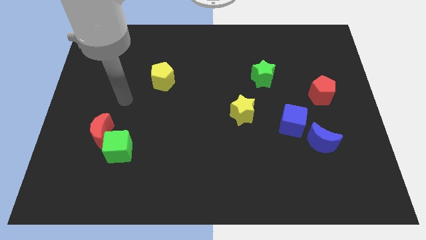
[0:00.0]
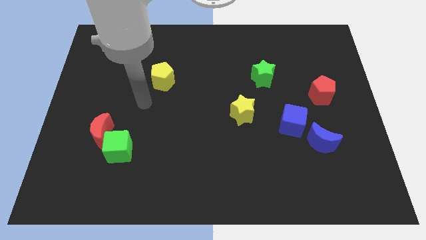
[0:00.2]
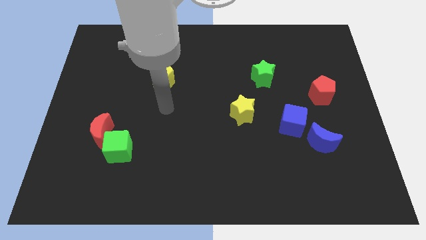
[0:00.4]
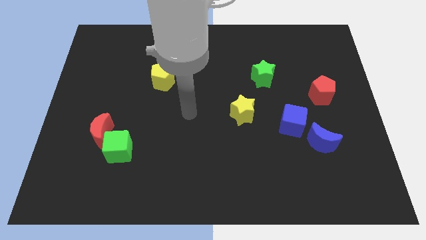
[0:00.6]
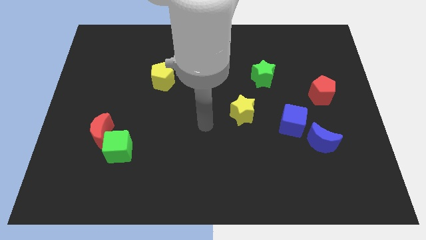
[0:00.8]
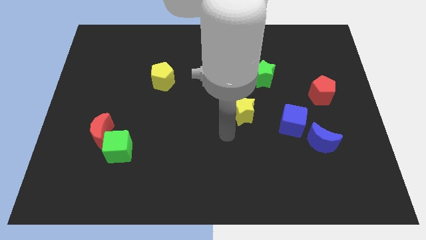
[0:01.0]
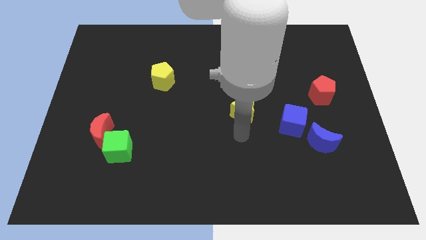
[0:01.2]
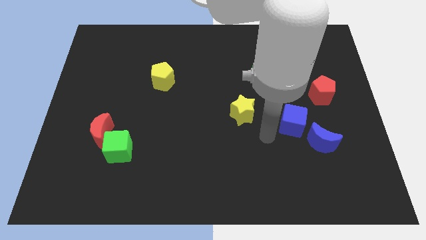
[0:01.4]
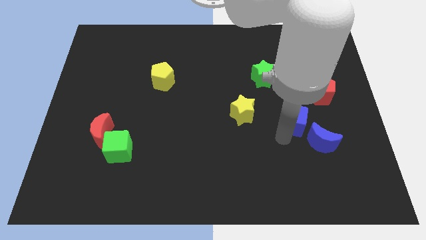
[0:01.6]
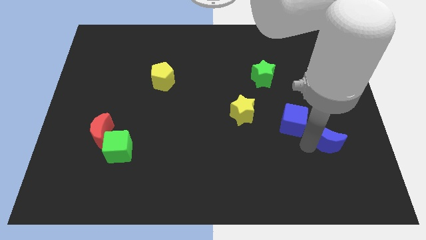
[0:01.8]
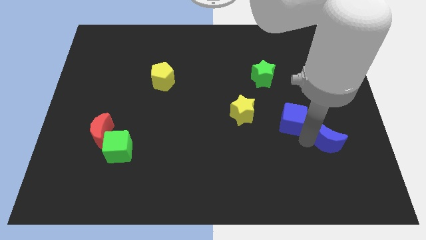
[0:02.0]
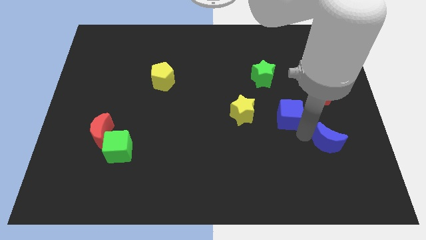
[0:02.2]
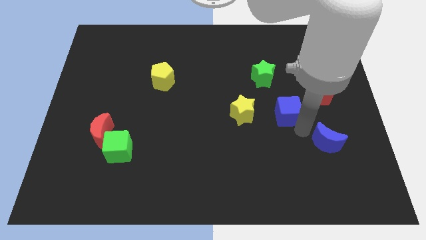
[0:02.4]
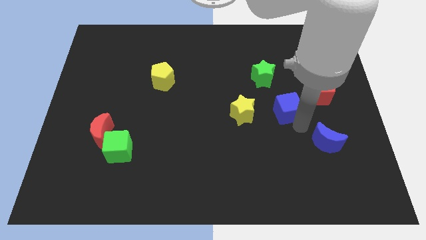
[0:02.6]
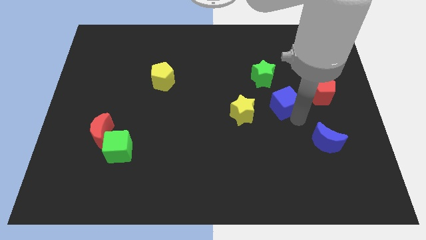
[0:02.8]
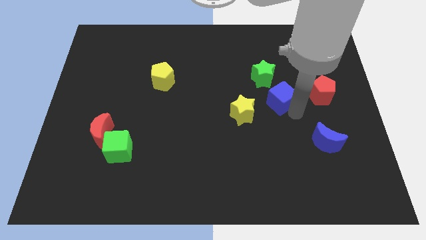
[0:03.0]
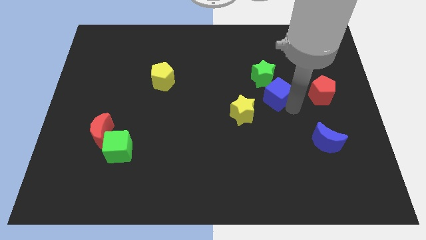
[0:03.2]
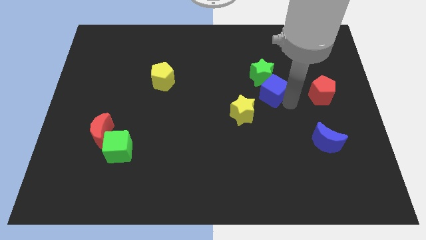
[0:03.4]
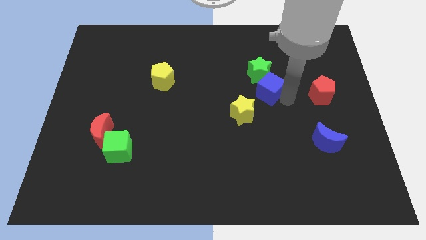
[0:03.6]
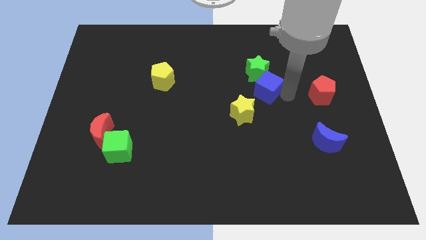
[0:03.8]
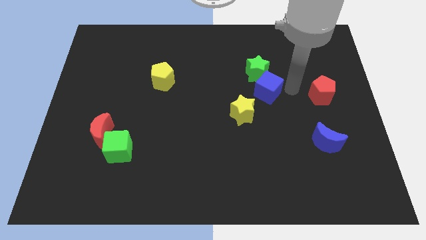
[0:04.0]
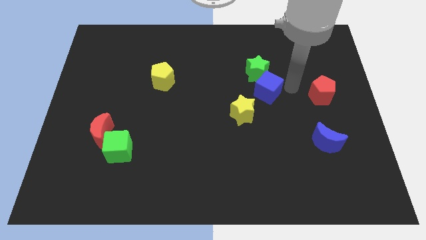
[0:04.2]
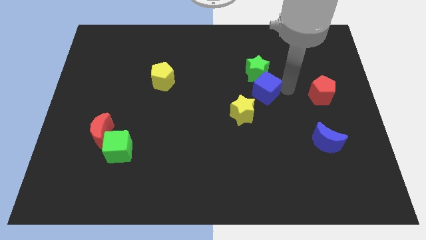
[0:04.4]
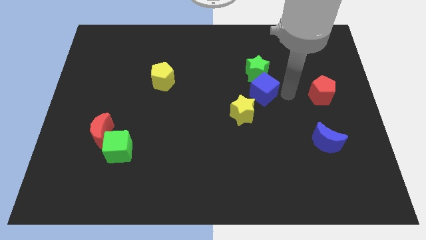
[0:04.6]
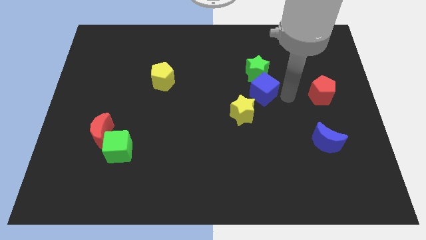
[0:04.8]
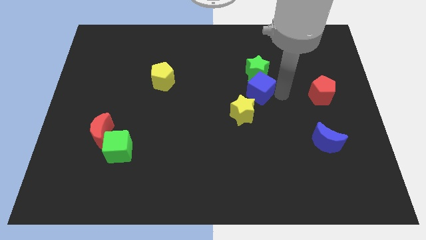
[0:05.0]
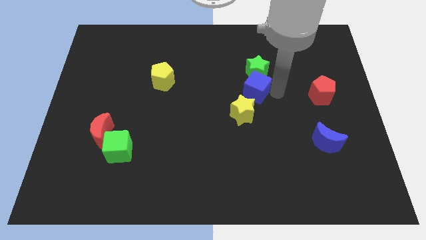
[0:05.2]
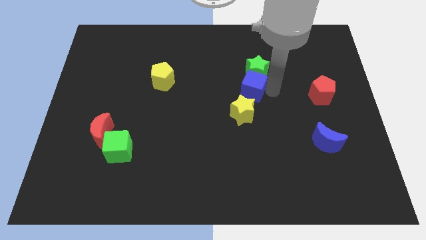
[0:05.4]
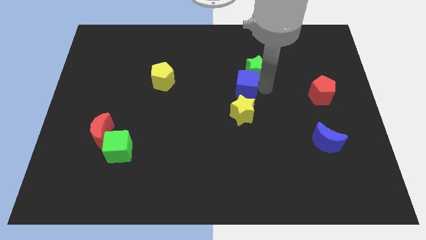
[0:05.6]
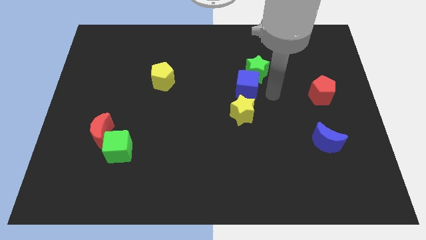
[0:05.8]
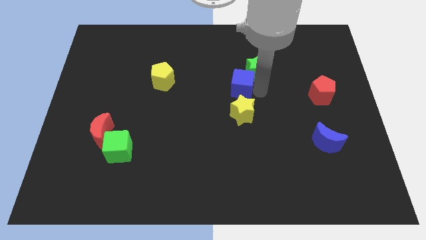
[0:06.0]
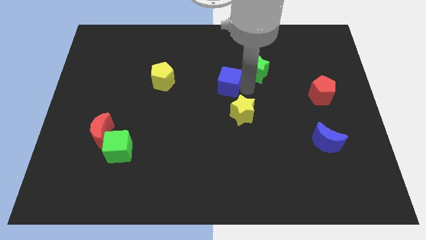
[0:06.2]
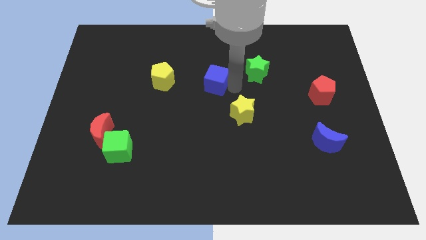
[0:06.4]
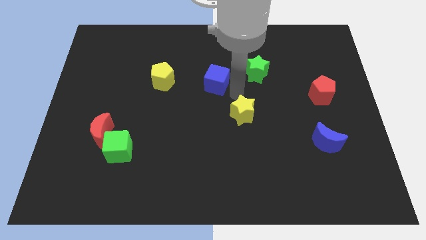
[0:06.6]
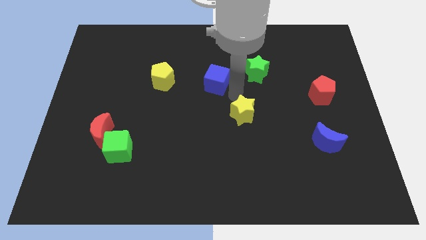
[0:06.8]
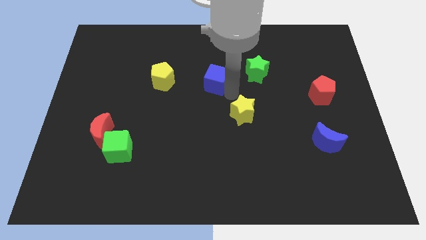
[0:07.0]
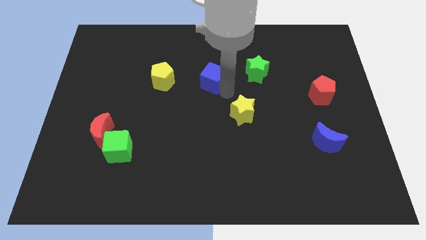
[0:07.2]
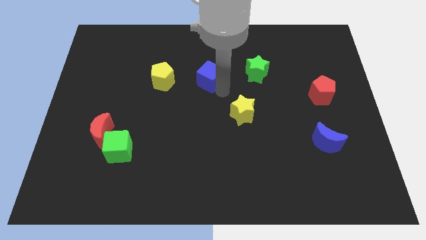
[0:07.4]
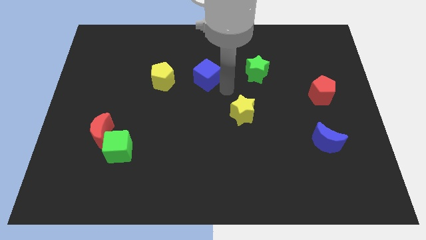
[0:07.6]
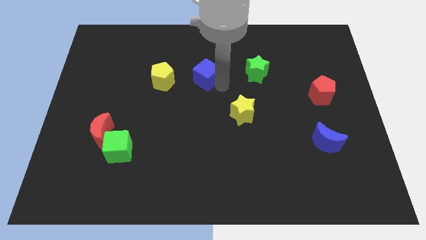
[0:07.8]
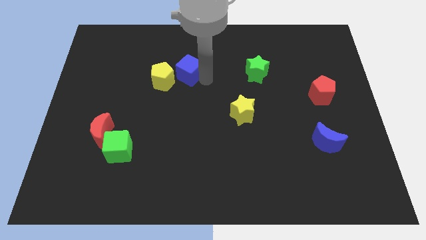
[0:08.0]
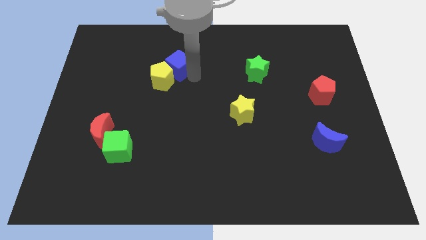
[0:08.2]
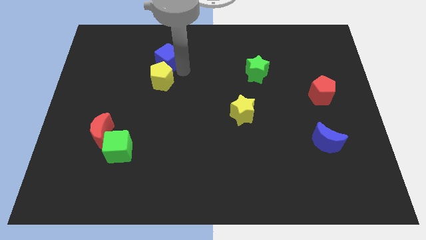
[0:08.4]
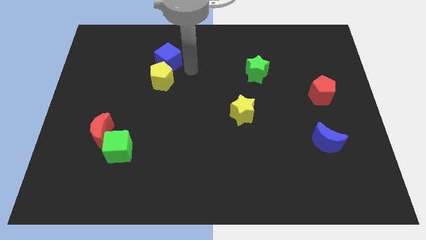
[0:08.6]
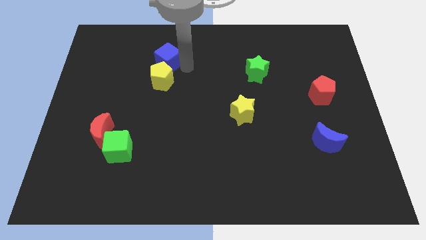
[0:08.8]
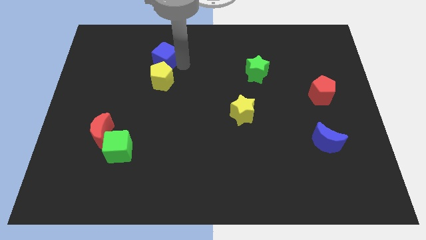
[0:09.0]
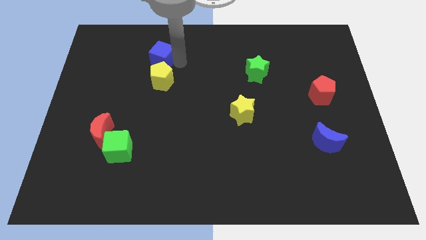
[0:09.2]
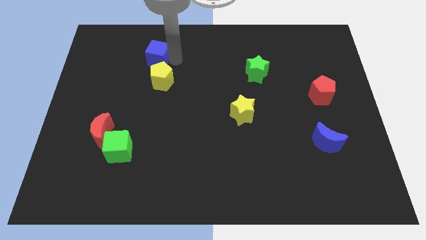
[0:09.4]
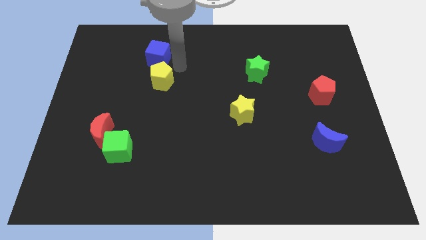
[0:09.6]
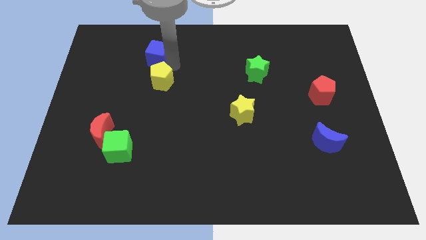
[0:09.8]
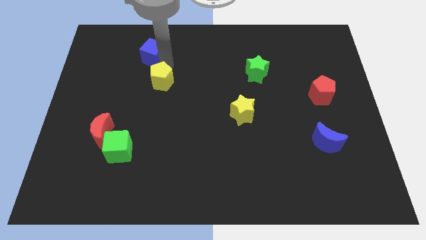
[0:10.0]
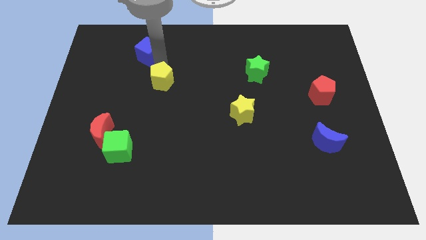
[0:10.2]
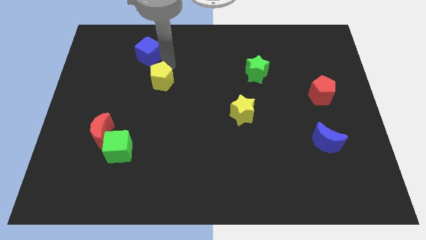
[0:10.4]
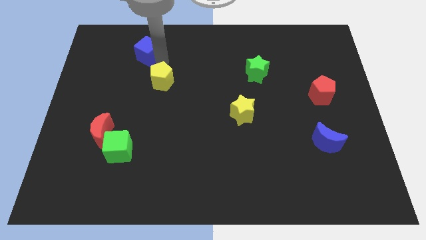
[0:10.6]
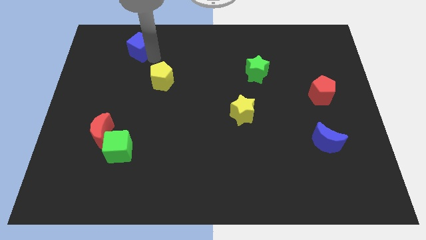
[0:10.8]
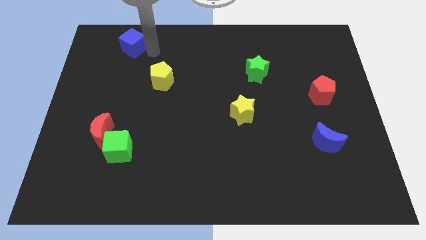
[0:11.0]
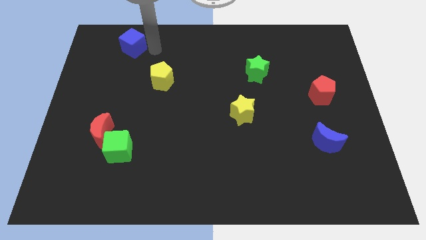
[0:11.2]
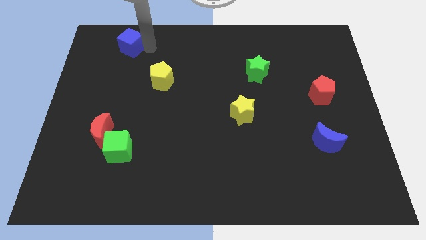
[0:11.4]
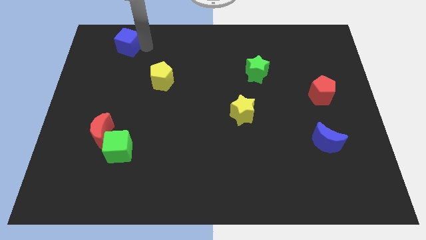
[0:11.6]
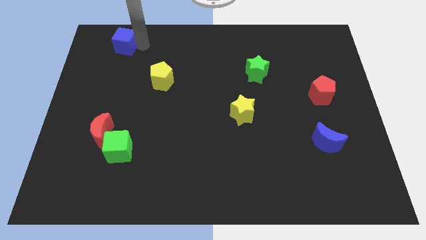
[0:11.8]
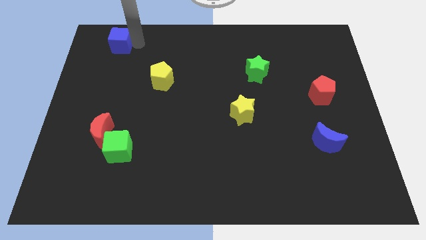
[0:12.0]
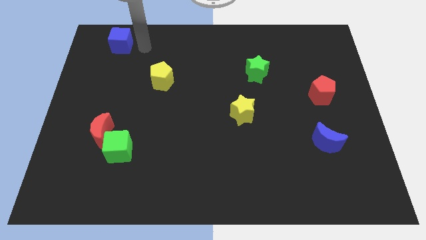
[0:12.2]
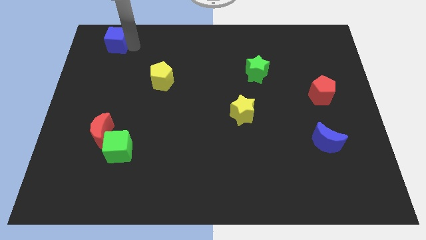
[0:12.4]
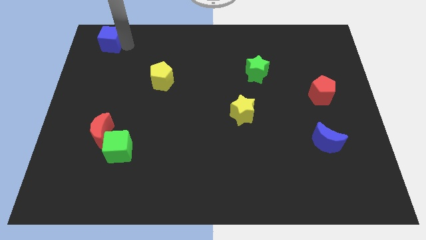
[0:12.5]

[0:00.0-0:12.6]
push the blue cube to the upper left corner
